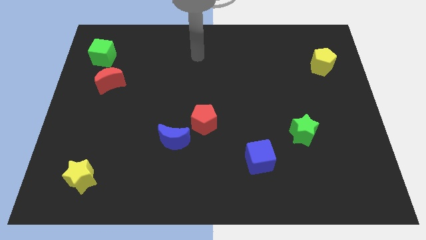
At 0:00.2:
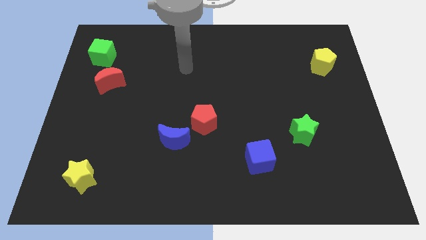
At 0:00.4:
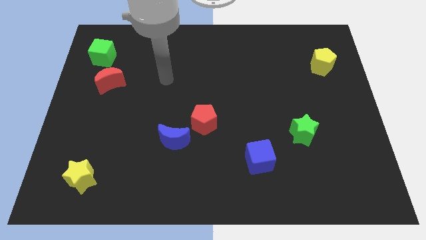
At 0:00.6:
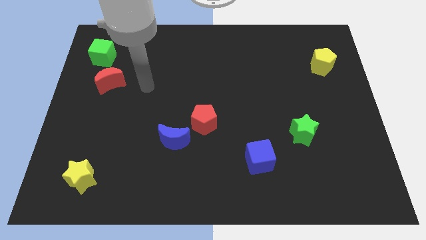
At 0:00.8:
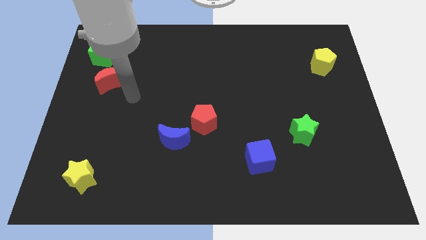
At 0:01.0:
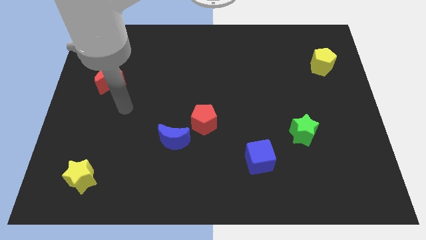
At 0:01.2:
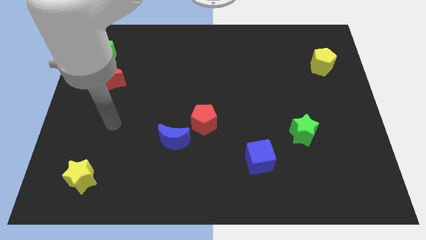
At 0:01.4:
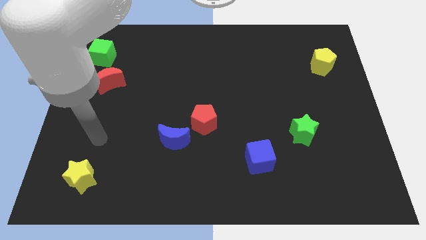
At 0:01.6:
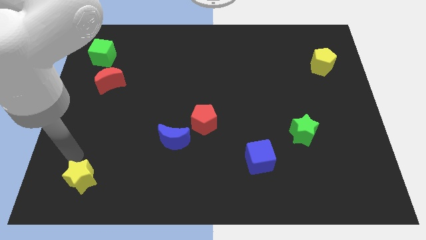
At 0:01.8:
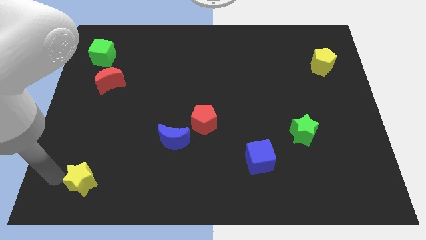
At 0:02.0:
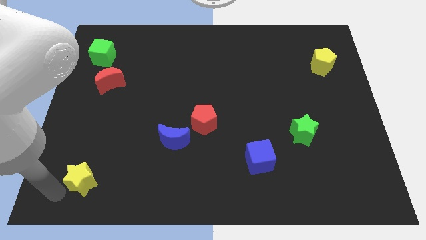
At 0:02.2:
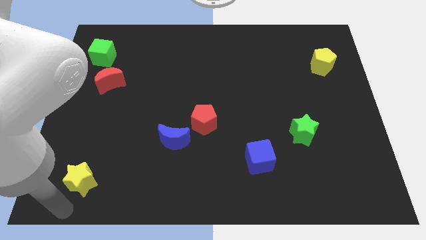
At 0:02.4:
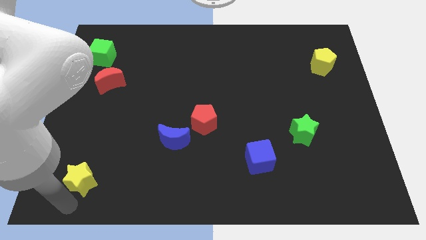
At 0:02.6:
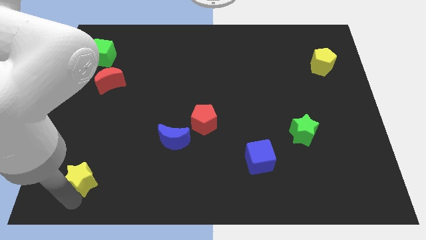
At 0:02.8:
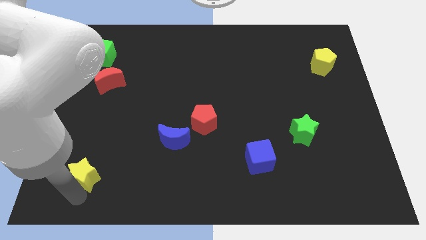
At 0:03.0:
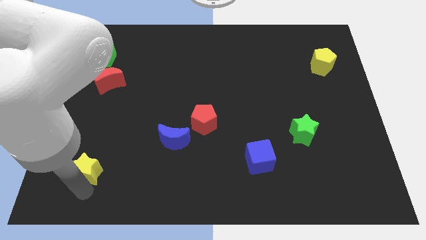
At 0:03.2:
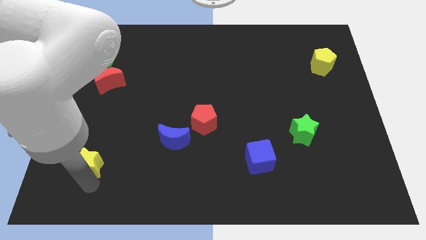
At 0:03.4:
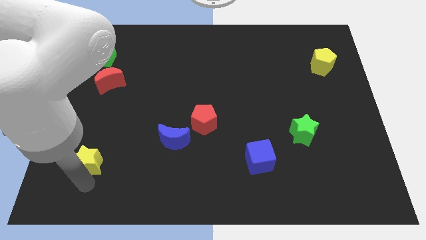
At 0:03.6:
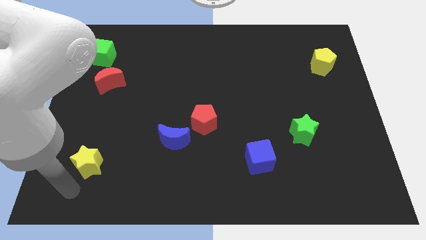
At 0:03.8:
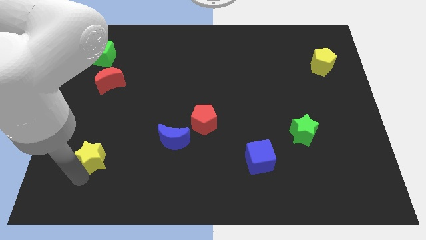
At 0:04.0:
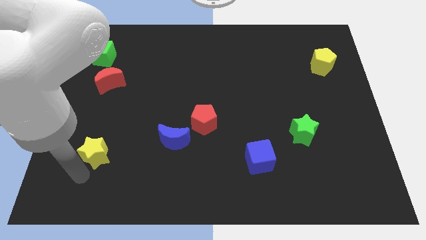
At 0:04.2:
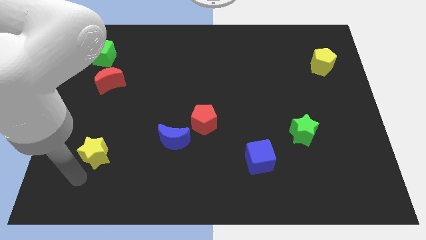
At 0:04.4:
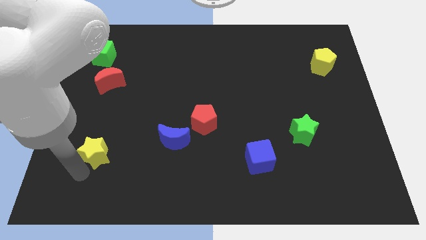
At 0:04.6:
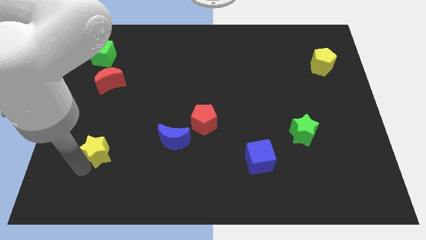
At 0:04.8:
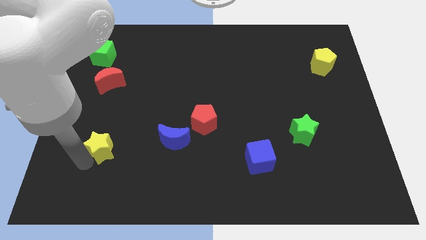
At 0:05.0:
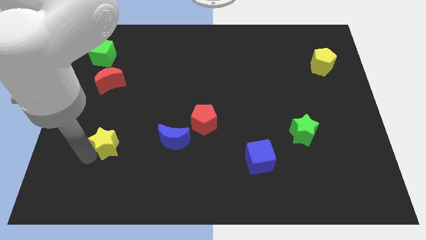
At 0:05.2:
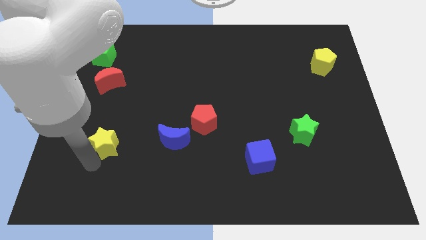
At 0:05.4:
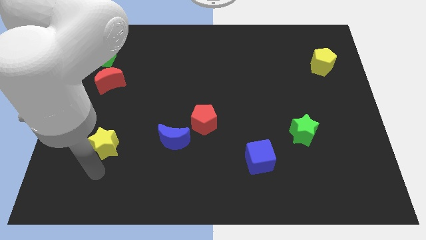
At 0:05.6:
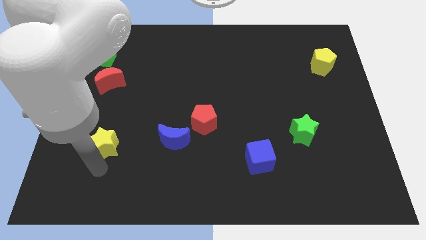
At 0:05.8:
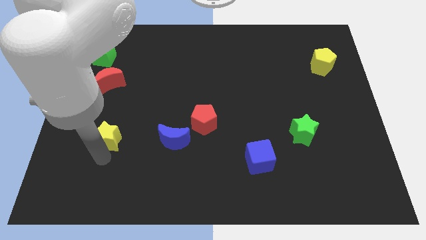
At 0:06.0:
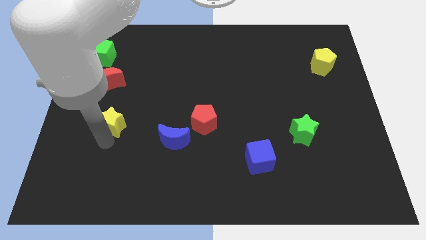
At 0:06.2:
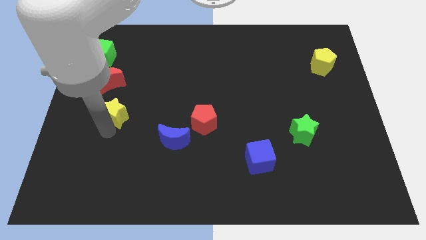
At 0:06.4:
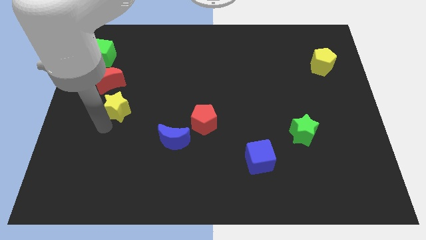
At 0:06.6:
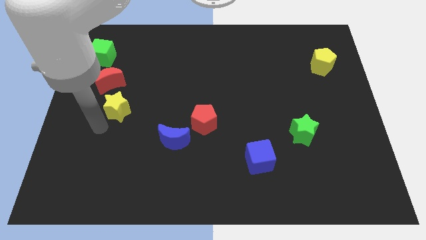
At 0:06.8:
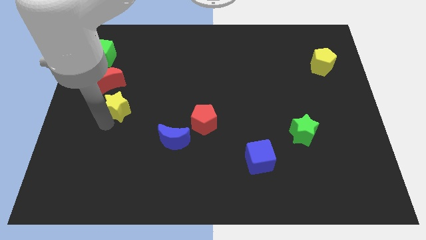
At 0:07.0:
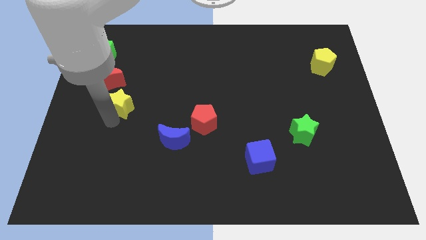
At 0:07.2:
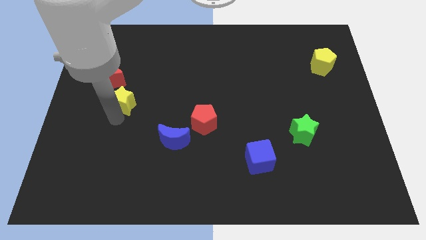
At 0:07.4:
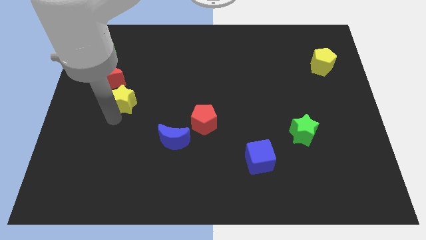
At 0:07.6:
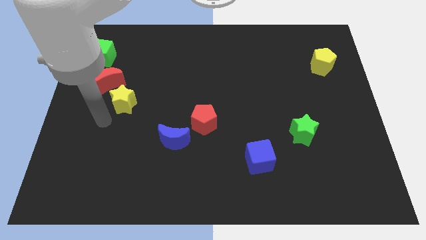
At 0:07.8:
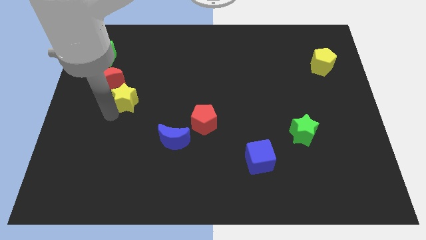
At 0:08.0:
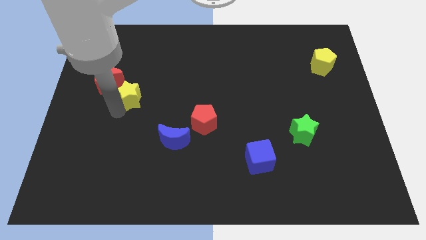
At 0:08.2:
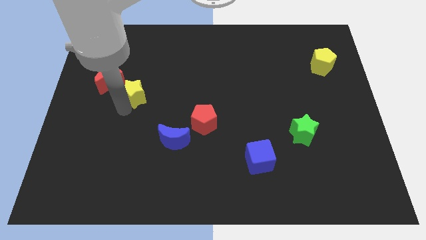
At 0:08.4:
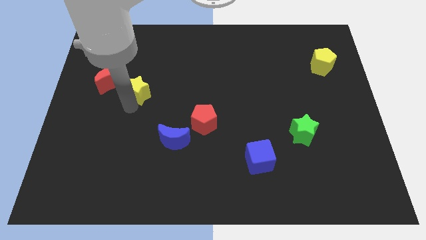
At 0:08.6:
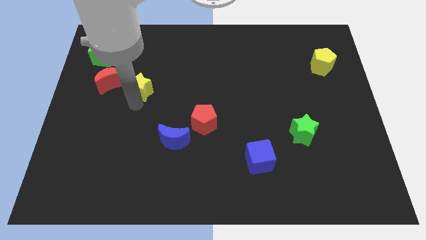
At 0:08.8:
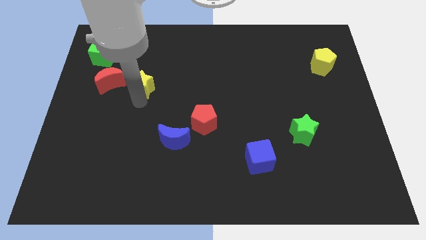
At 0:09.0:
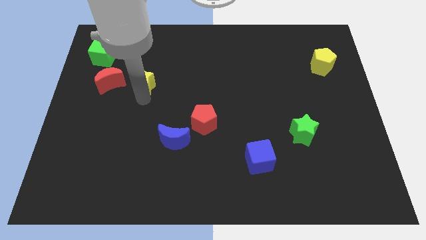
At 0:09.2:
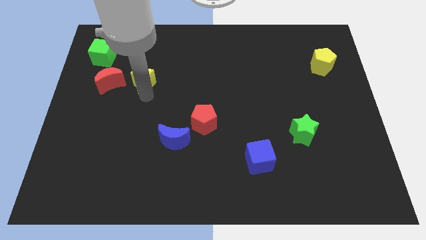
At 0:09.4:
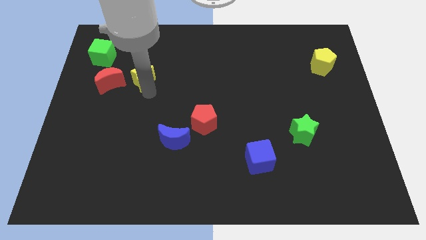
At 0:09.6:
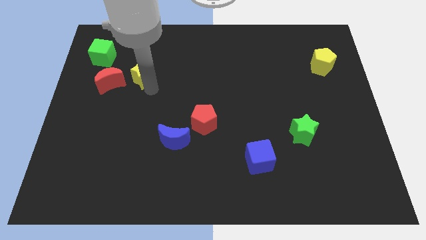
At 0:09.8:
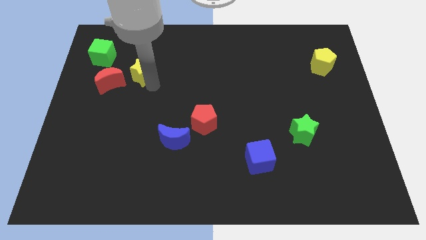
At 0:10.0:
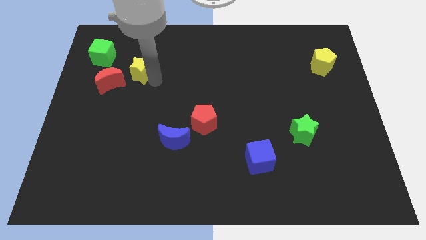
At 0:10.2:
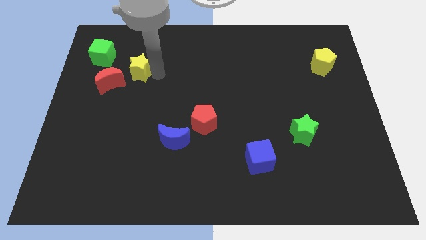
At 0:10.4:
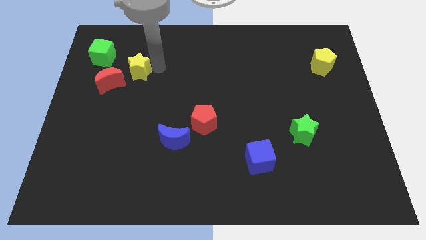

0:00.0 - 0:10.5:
slide the yellow star right of the green cube

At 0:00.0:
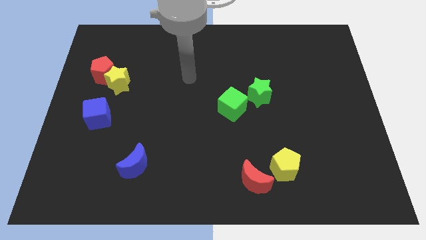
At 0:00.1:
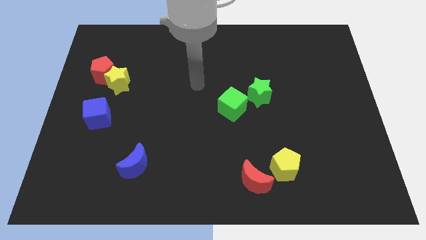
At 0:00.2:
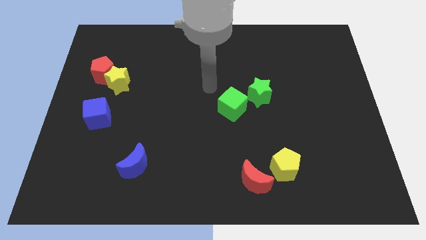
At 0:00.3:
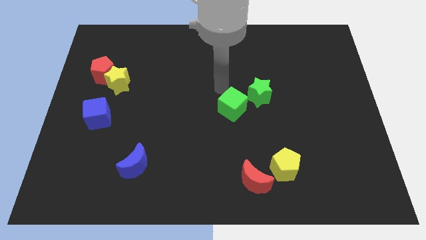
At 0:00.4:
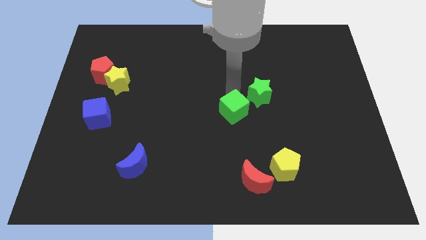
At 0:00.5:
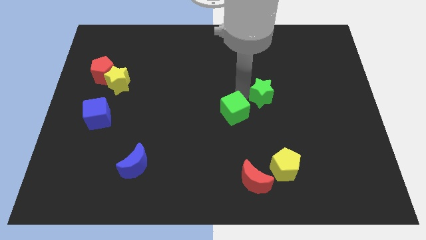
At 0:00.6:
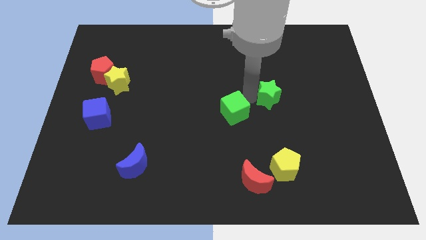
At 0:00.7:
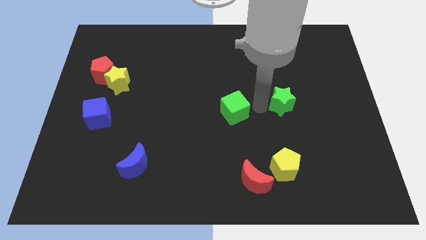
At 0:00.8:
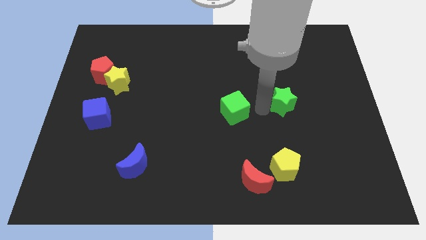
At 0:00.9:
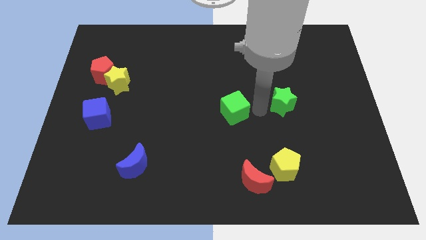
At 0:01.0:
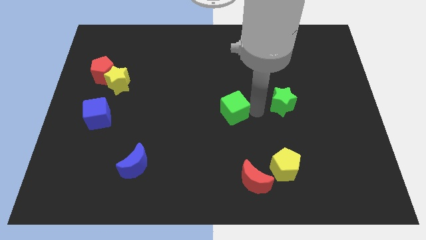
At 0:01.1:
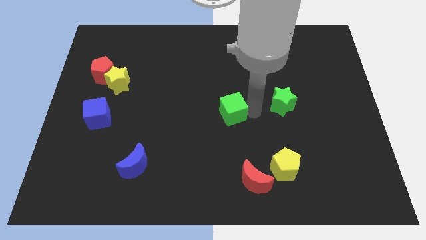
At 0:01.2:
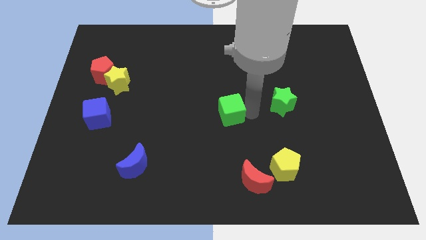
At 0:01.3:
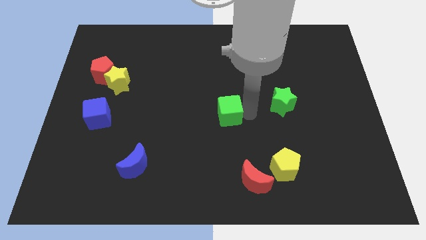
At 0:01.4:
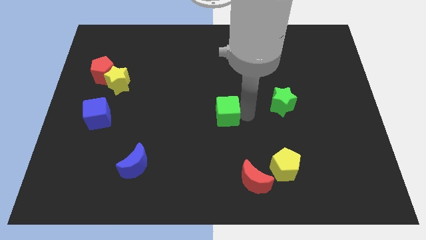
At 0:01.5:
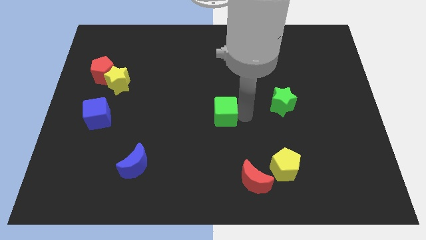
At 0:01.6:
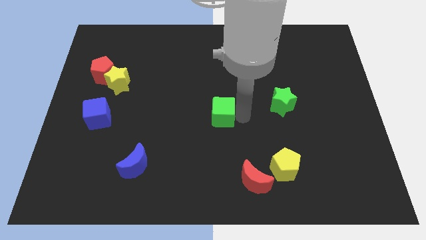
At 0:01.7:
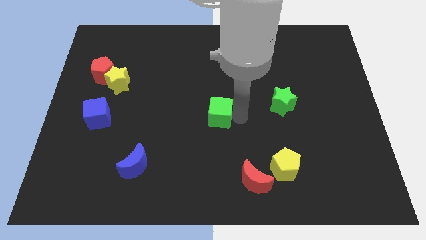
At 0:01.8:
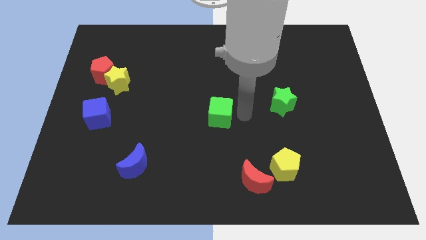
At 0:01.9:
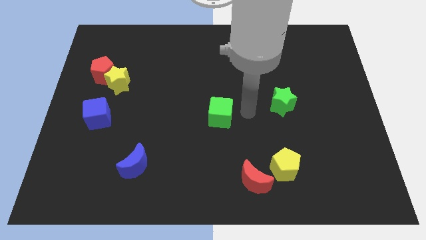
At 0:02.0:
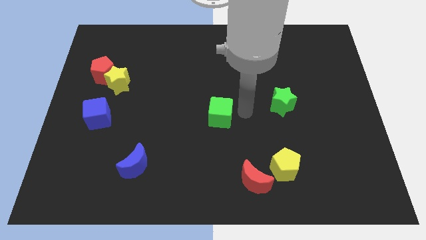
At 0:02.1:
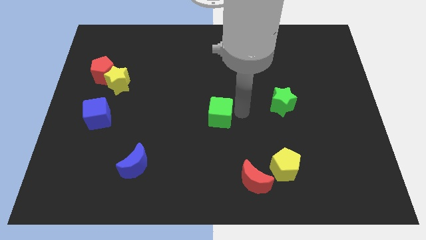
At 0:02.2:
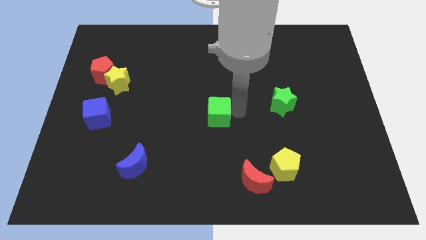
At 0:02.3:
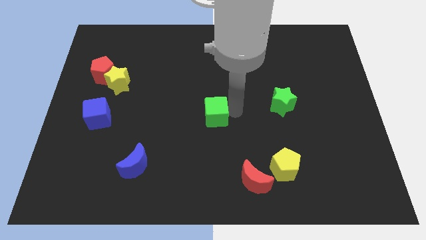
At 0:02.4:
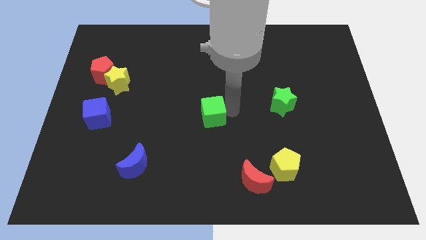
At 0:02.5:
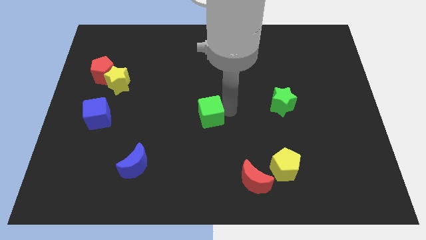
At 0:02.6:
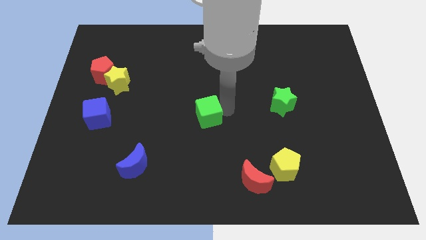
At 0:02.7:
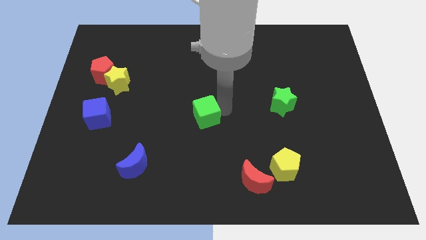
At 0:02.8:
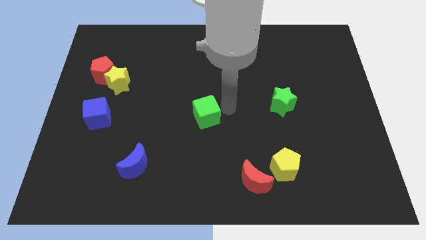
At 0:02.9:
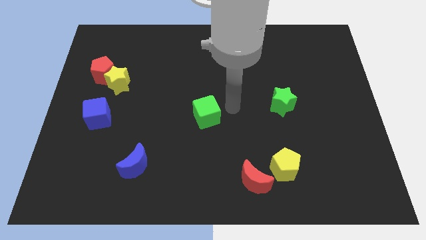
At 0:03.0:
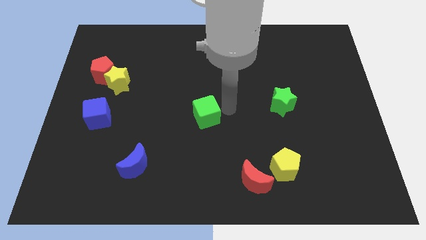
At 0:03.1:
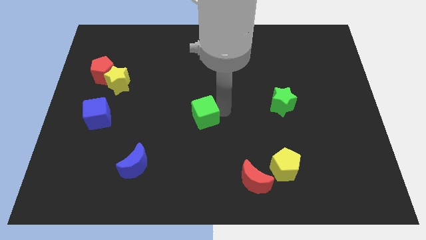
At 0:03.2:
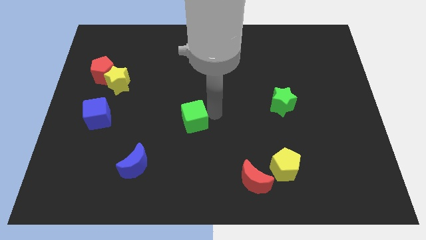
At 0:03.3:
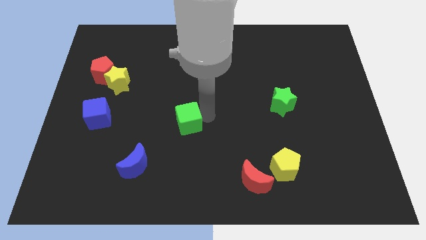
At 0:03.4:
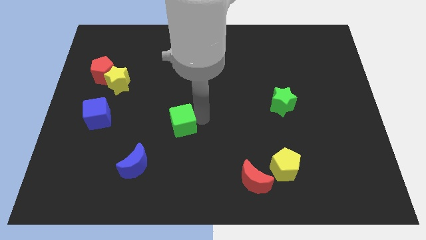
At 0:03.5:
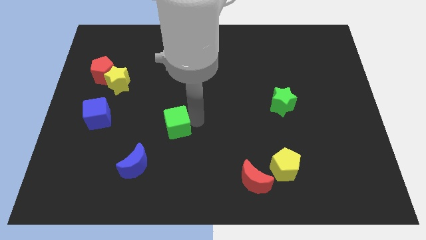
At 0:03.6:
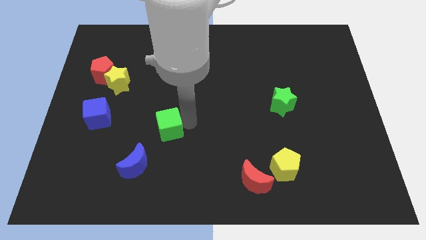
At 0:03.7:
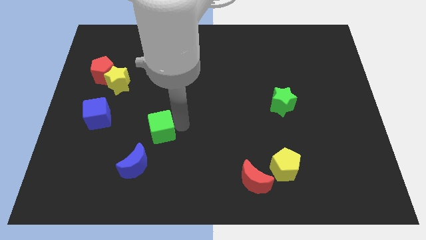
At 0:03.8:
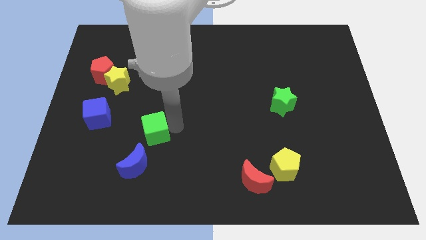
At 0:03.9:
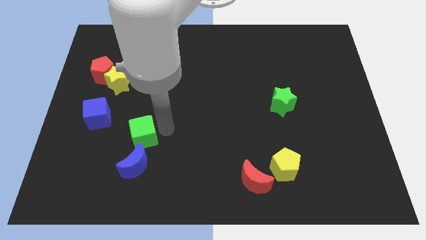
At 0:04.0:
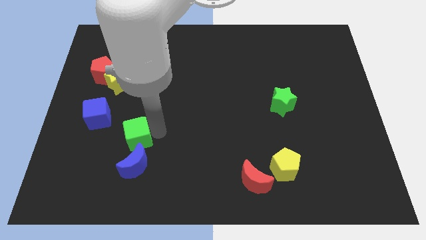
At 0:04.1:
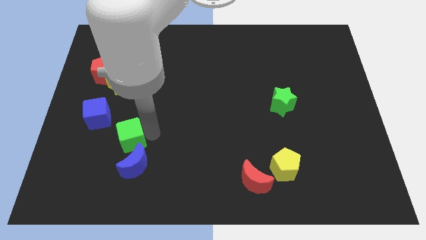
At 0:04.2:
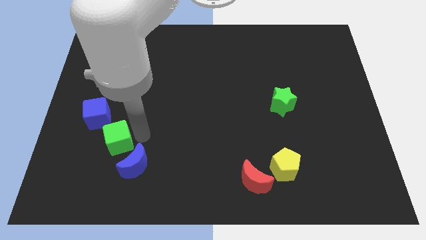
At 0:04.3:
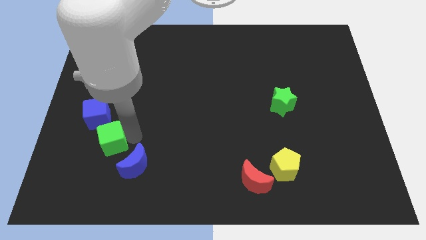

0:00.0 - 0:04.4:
push the green cube to the bottom side of the blue cube
